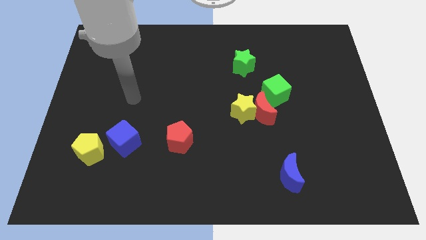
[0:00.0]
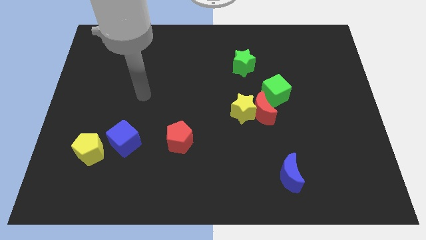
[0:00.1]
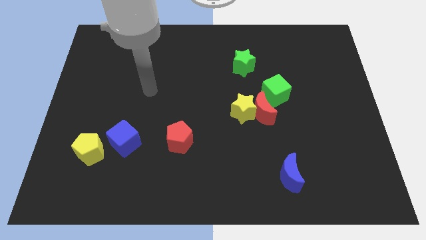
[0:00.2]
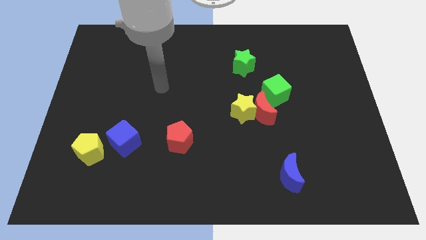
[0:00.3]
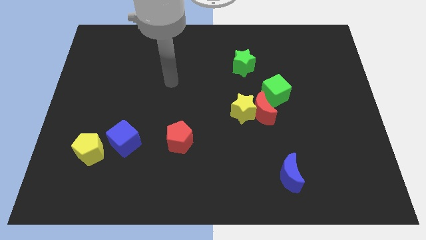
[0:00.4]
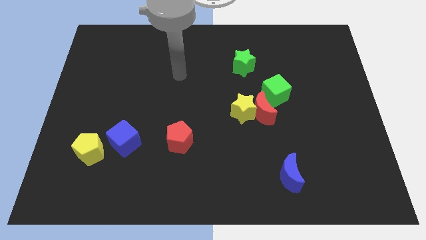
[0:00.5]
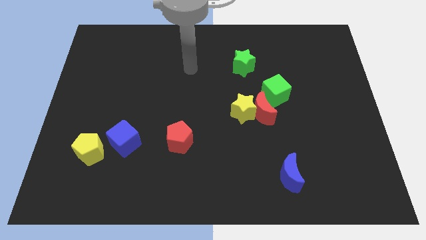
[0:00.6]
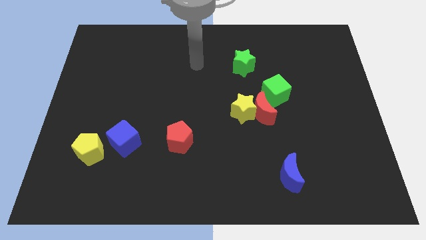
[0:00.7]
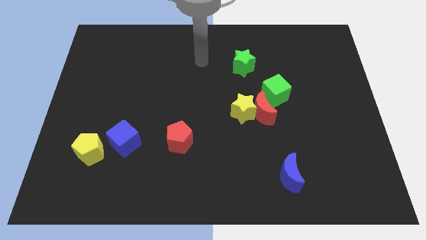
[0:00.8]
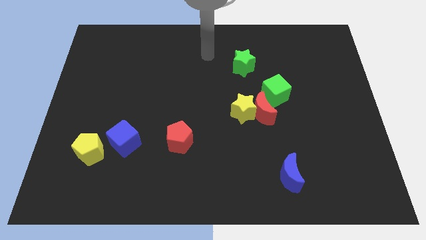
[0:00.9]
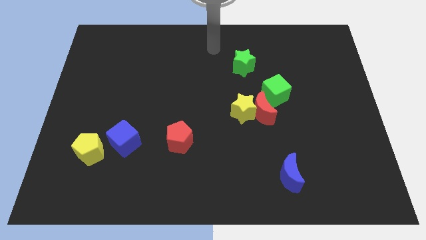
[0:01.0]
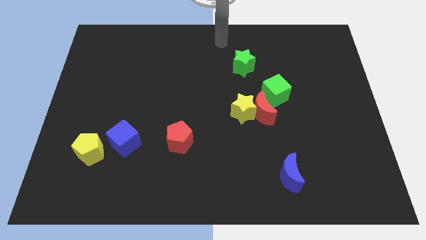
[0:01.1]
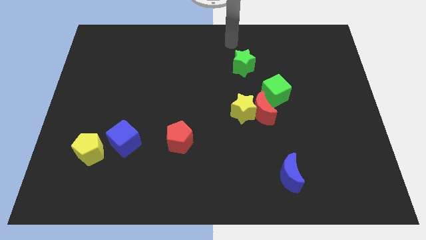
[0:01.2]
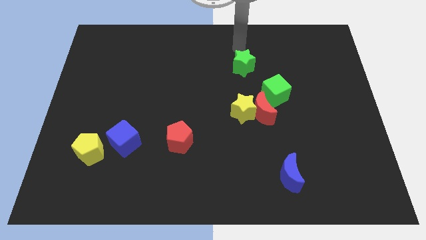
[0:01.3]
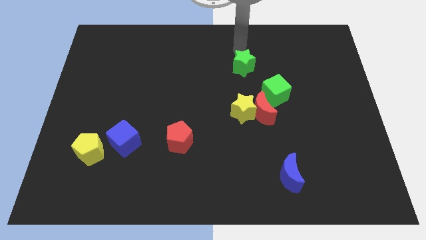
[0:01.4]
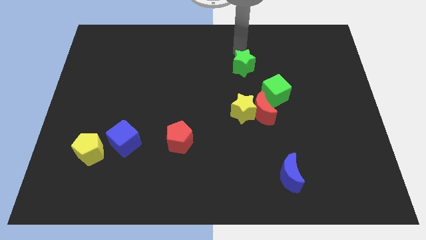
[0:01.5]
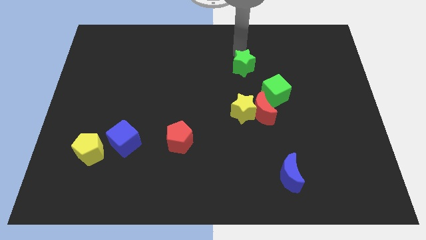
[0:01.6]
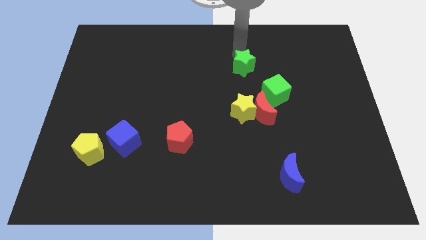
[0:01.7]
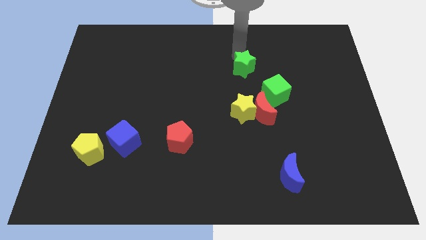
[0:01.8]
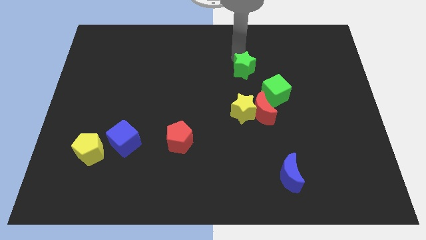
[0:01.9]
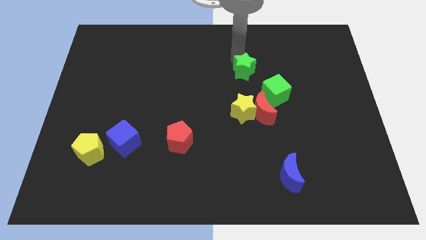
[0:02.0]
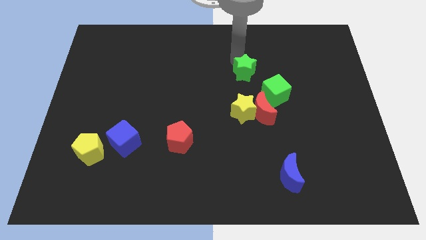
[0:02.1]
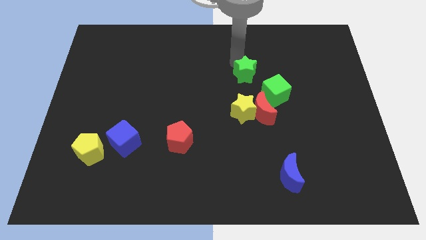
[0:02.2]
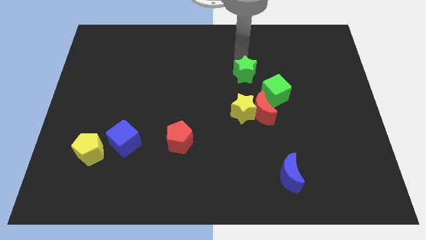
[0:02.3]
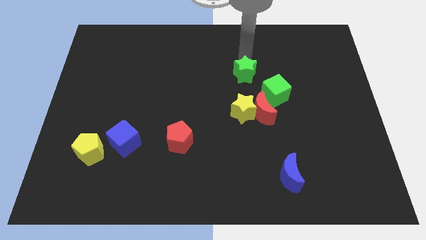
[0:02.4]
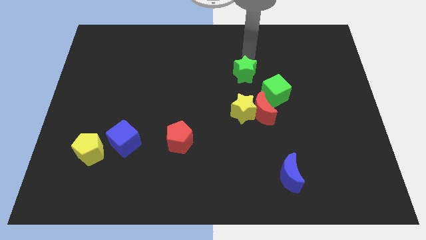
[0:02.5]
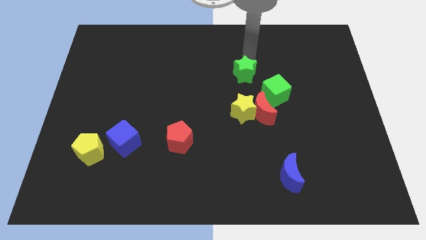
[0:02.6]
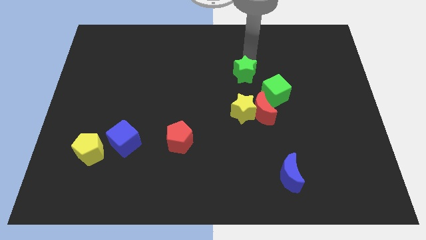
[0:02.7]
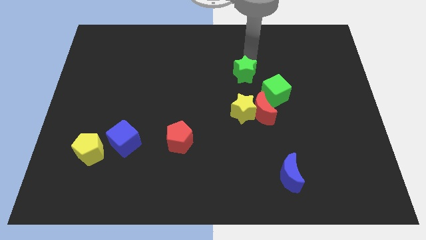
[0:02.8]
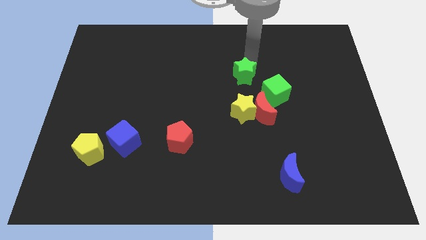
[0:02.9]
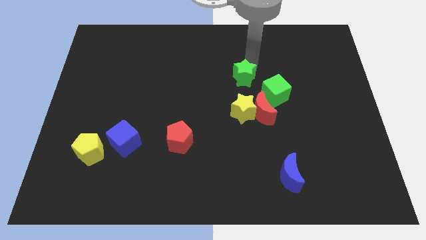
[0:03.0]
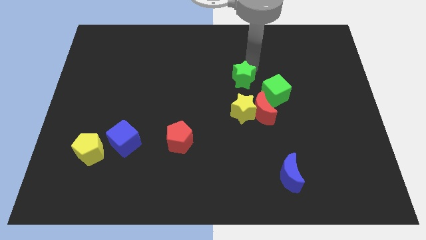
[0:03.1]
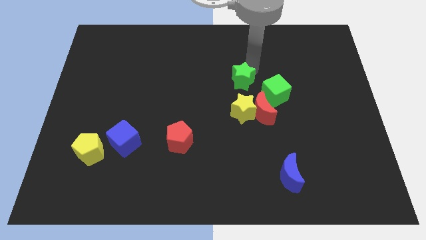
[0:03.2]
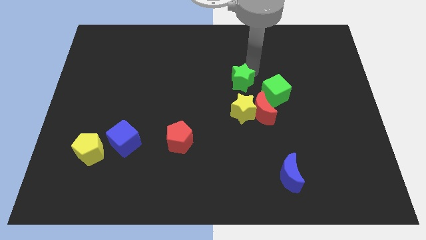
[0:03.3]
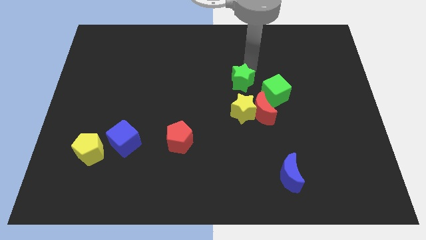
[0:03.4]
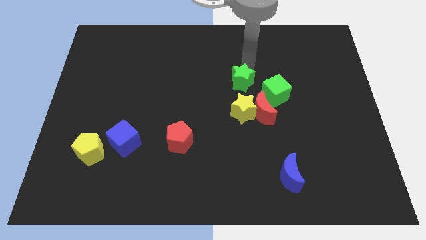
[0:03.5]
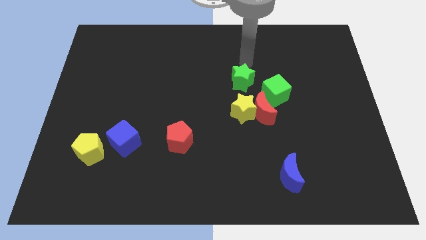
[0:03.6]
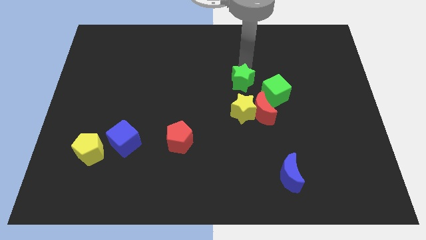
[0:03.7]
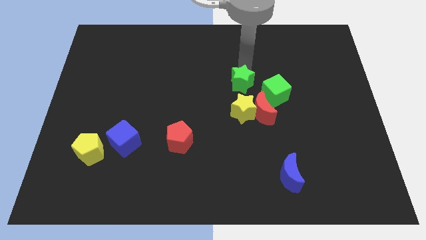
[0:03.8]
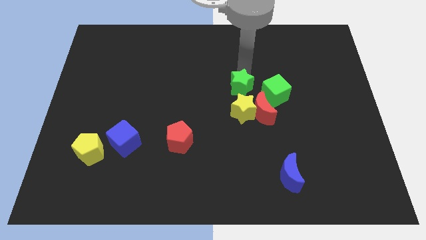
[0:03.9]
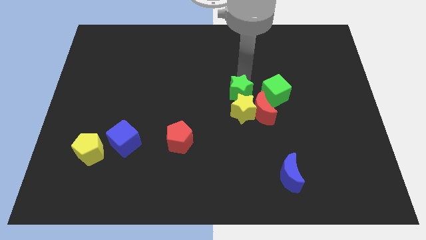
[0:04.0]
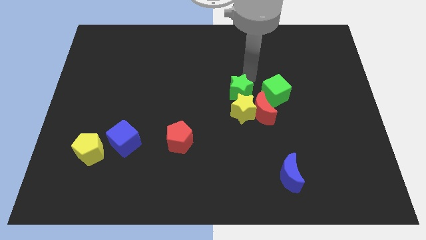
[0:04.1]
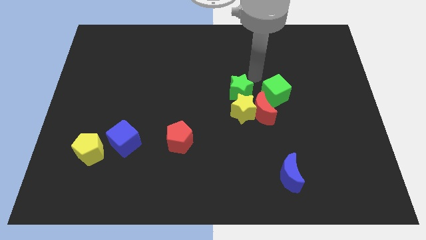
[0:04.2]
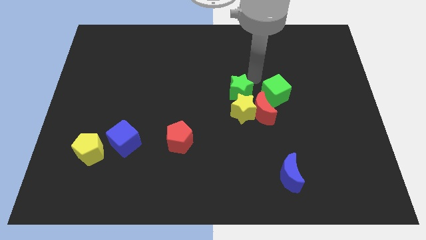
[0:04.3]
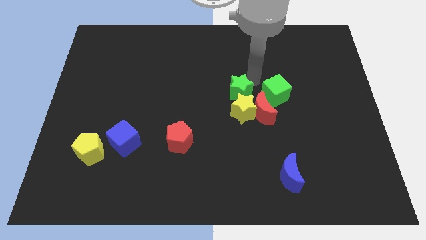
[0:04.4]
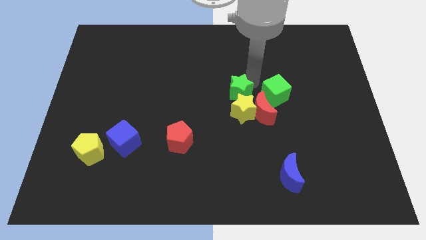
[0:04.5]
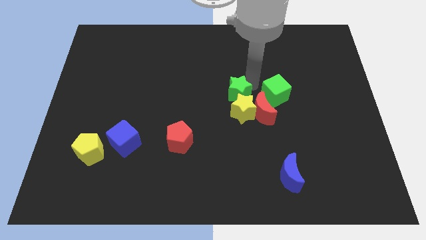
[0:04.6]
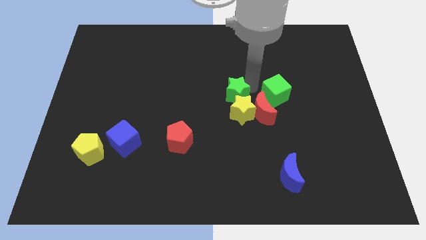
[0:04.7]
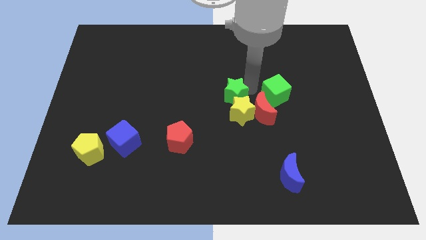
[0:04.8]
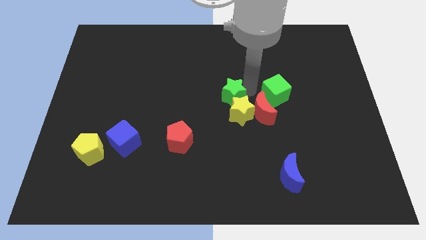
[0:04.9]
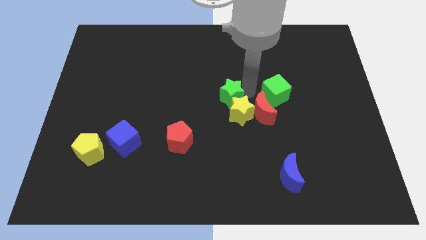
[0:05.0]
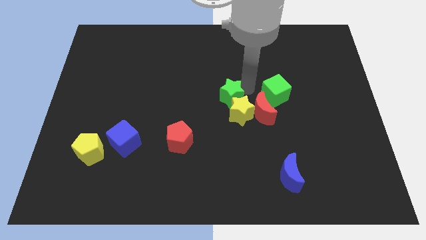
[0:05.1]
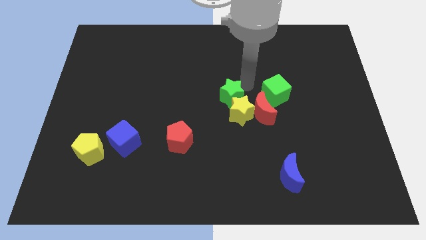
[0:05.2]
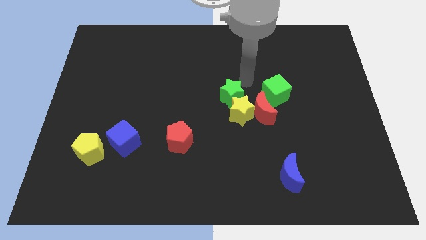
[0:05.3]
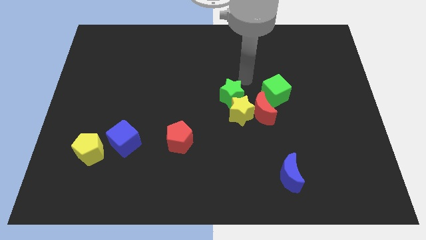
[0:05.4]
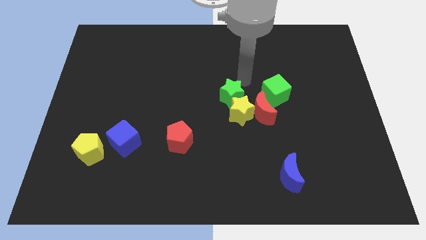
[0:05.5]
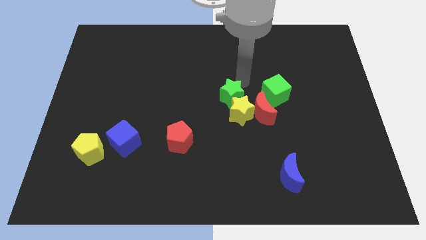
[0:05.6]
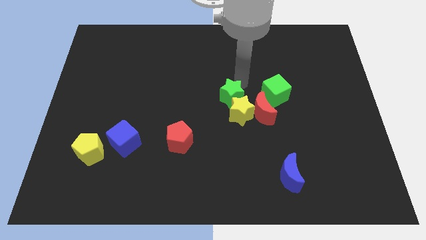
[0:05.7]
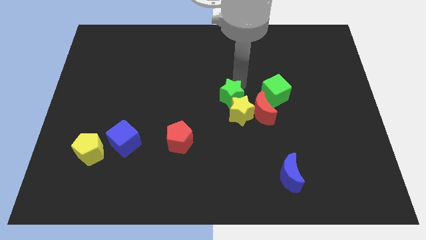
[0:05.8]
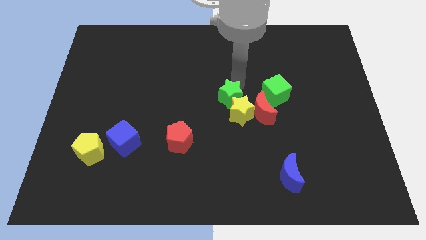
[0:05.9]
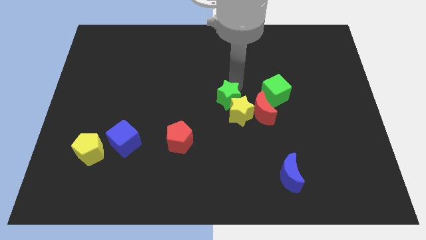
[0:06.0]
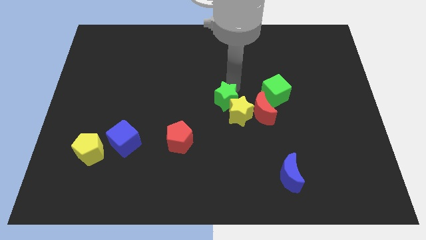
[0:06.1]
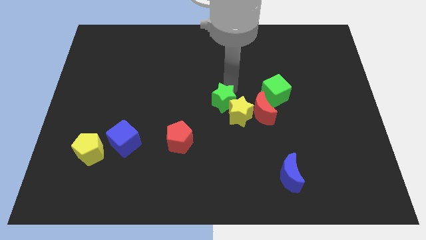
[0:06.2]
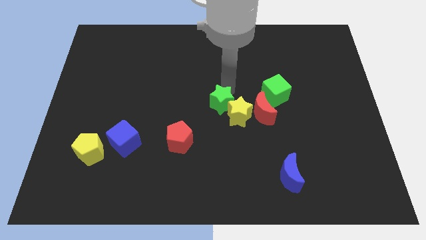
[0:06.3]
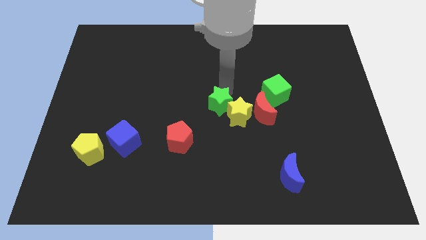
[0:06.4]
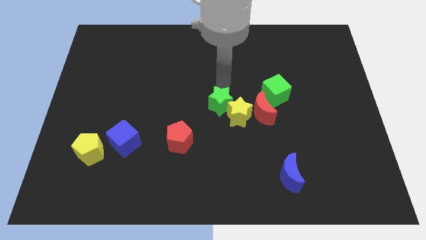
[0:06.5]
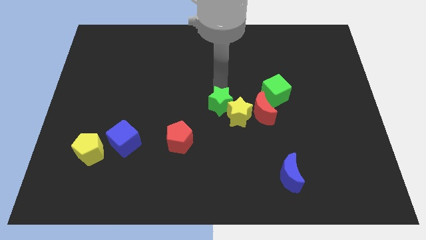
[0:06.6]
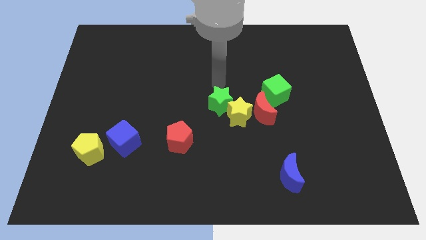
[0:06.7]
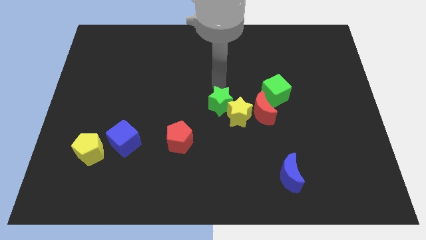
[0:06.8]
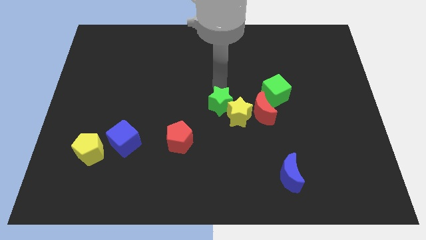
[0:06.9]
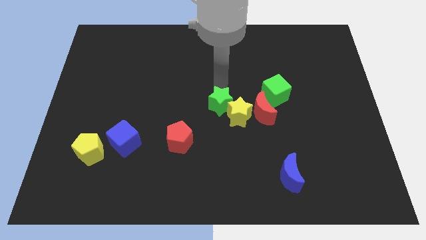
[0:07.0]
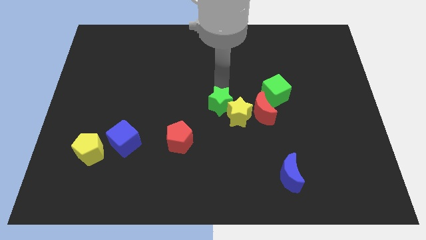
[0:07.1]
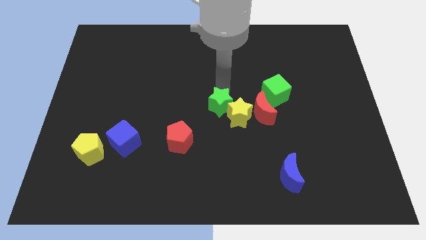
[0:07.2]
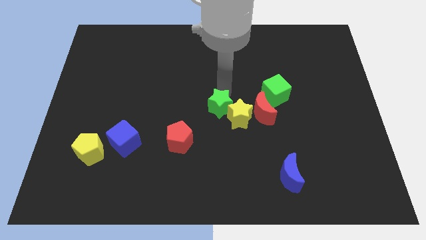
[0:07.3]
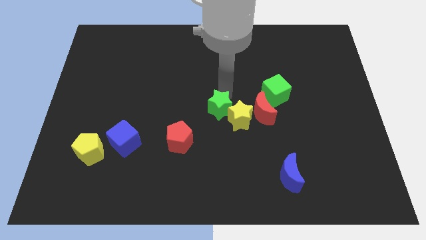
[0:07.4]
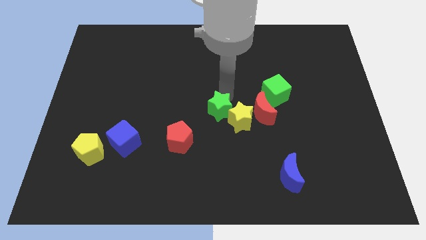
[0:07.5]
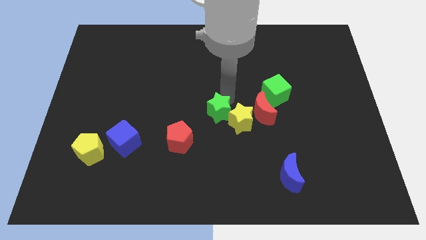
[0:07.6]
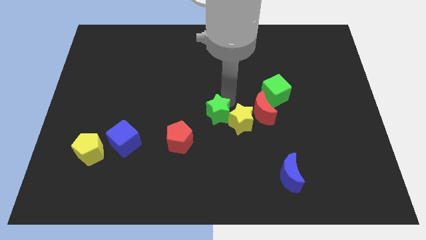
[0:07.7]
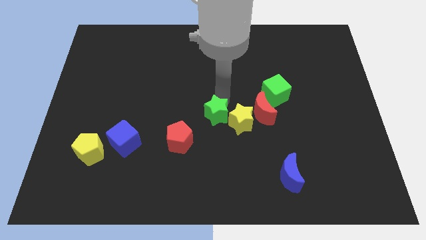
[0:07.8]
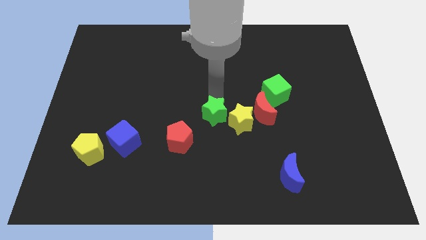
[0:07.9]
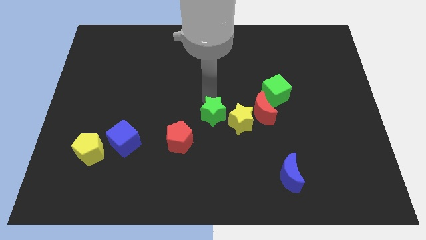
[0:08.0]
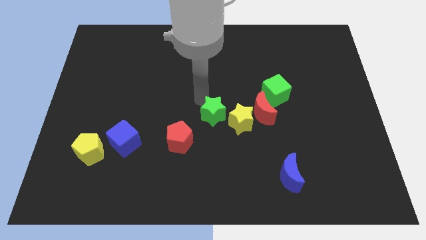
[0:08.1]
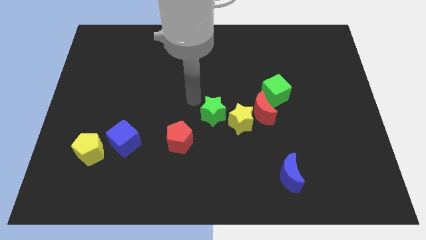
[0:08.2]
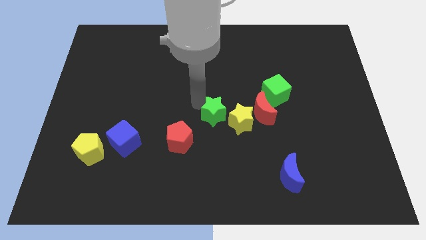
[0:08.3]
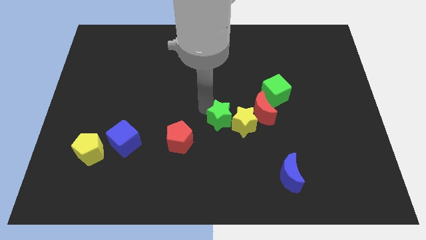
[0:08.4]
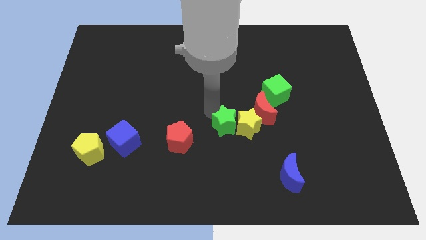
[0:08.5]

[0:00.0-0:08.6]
slide the green star to the bottom left of the red moon
